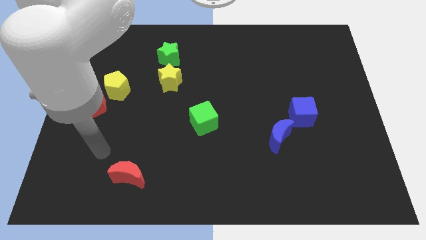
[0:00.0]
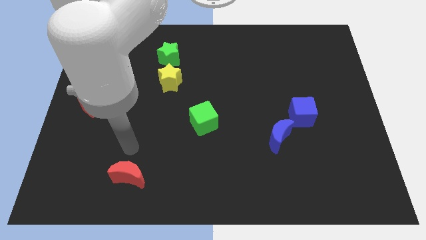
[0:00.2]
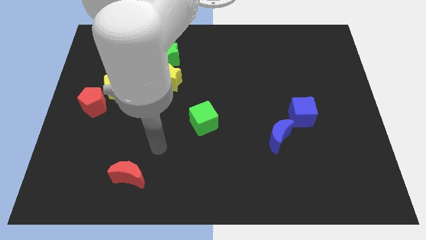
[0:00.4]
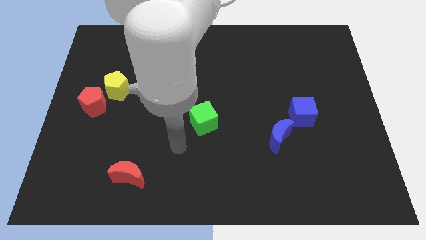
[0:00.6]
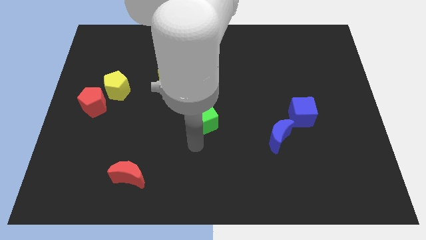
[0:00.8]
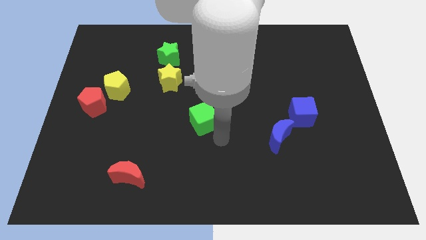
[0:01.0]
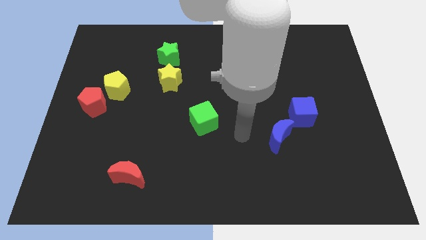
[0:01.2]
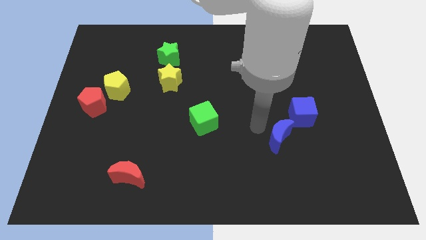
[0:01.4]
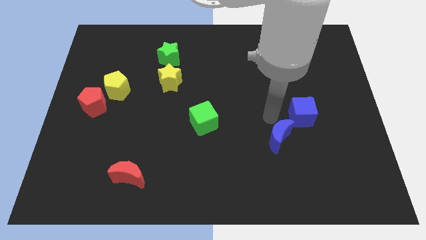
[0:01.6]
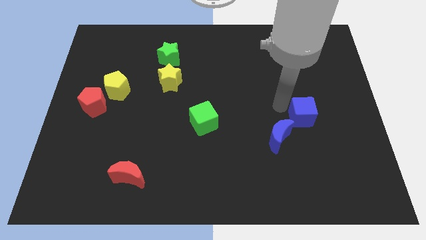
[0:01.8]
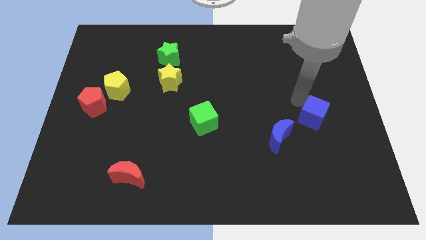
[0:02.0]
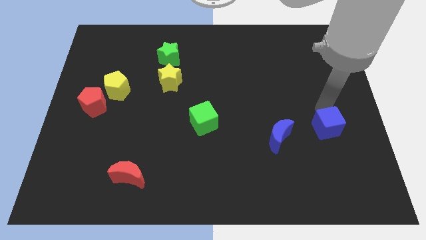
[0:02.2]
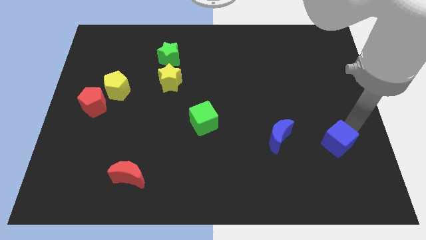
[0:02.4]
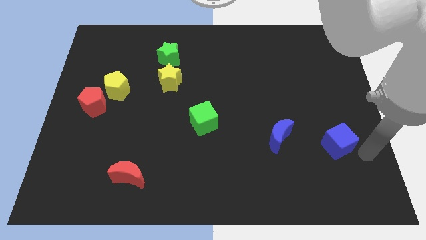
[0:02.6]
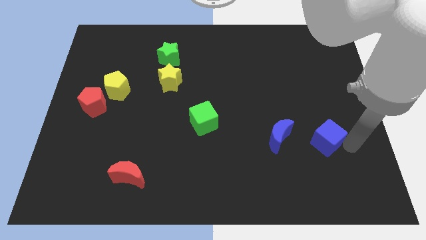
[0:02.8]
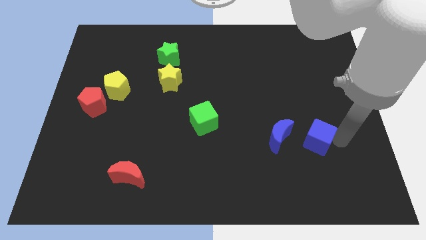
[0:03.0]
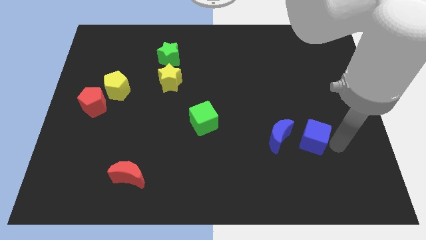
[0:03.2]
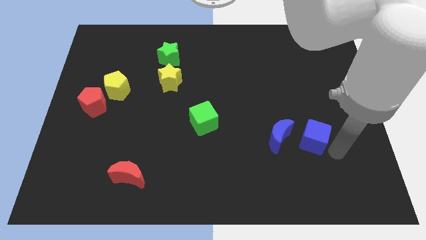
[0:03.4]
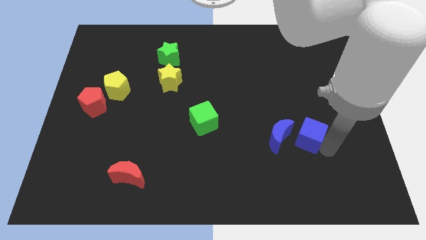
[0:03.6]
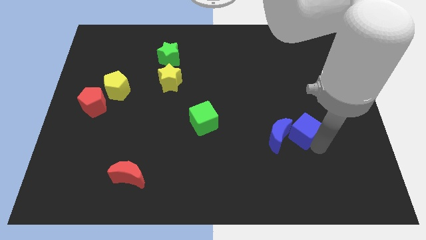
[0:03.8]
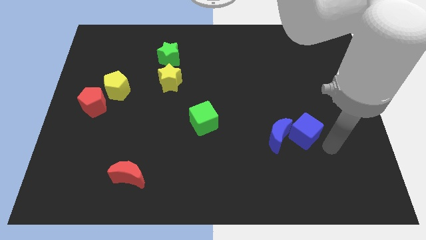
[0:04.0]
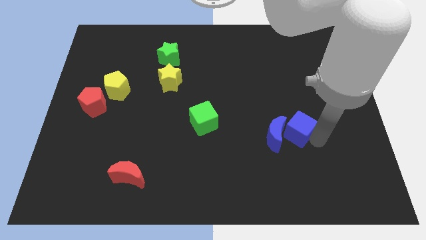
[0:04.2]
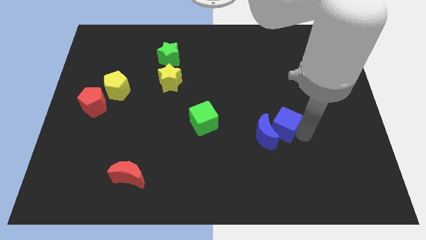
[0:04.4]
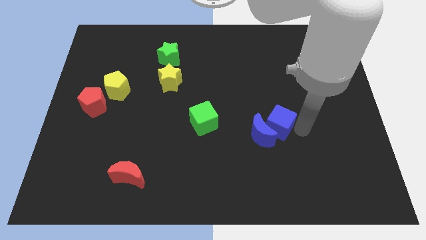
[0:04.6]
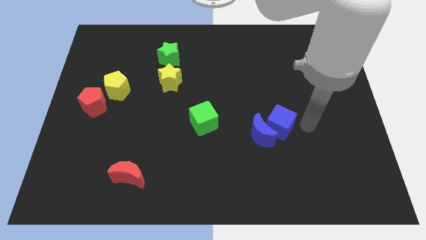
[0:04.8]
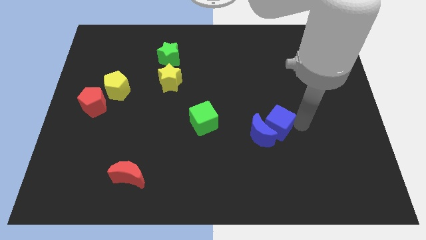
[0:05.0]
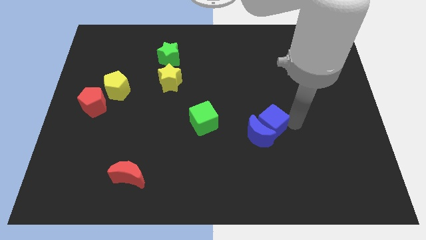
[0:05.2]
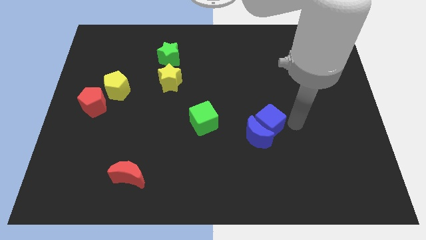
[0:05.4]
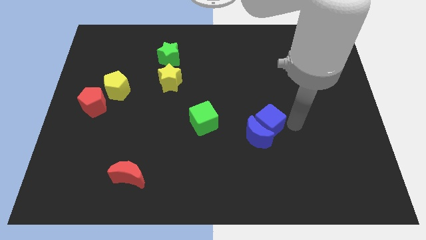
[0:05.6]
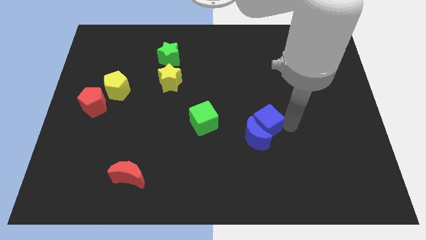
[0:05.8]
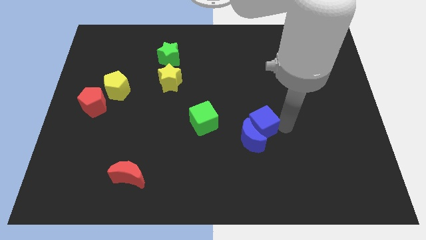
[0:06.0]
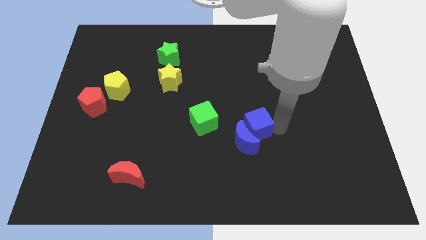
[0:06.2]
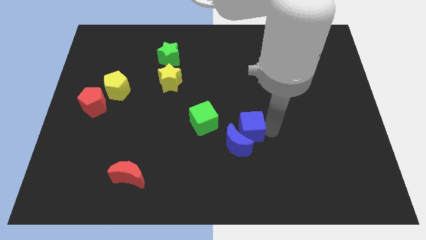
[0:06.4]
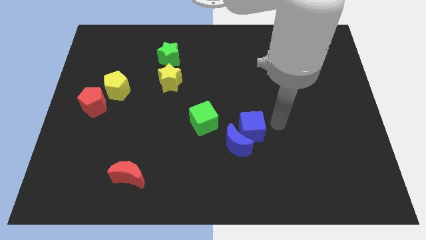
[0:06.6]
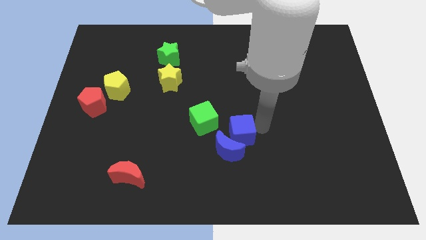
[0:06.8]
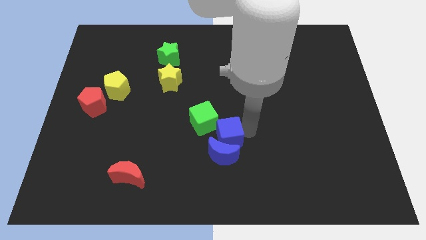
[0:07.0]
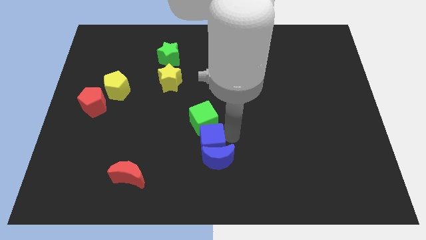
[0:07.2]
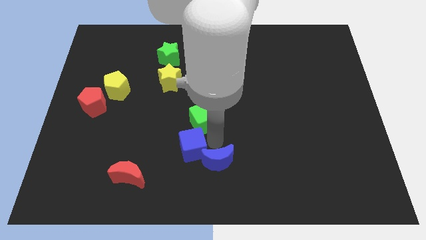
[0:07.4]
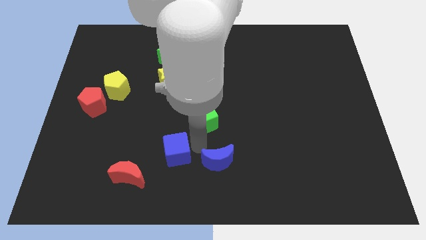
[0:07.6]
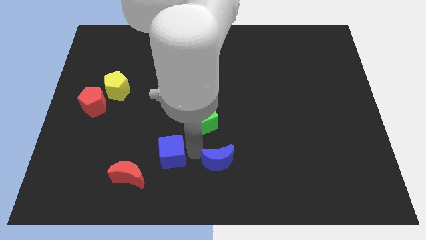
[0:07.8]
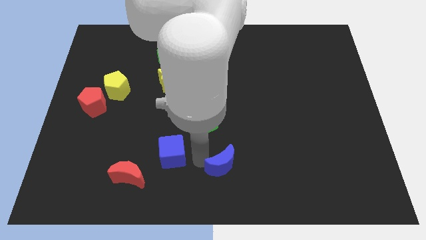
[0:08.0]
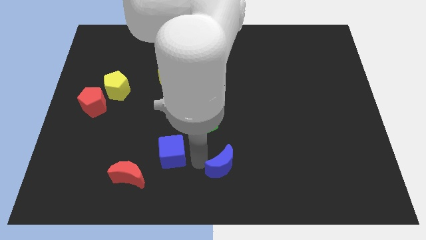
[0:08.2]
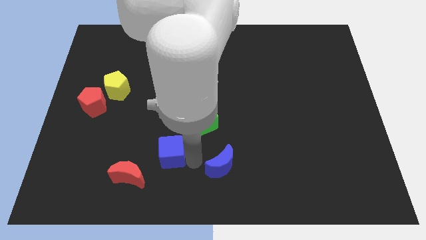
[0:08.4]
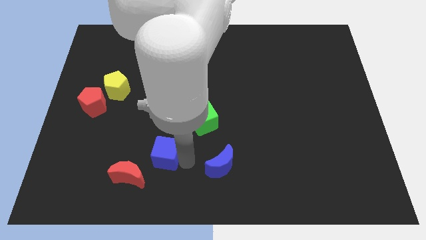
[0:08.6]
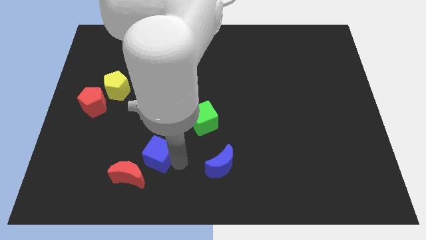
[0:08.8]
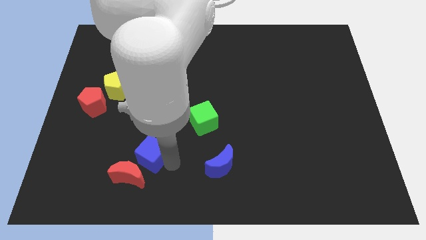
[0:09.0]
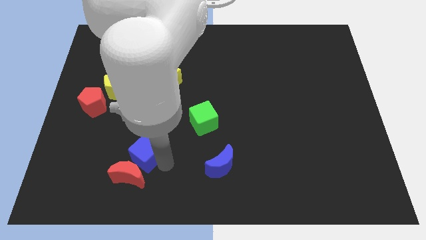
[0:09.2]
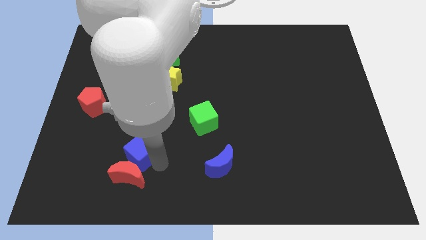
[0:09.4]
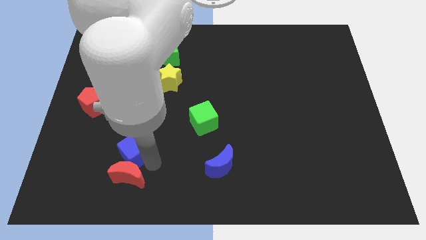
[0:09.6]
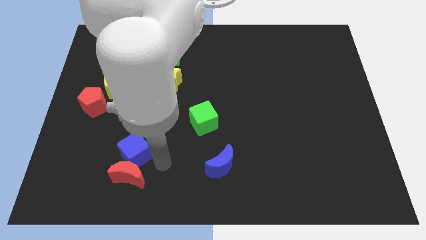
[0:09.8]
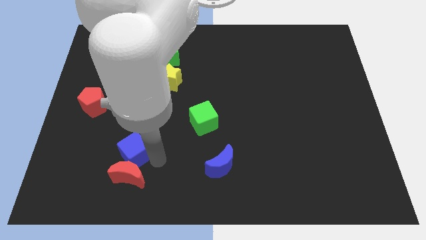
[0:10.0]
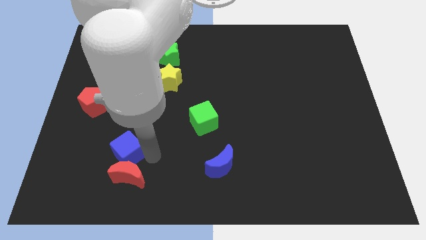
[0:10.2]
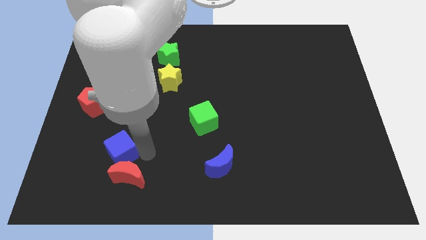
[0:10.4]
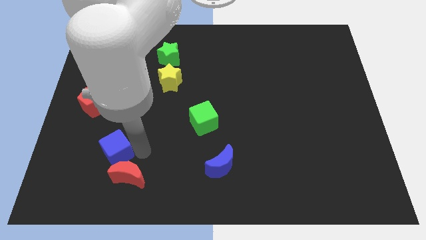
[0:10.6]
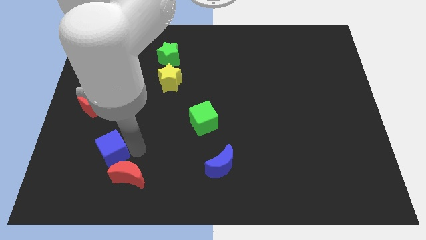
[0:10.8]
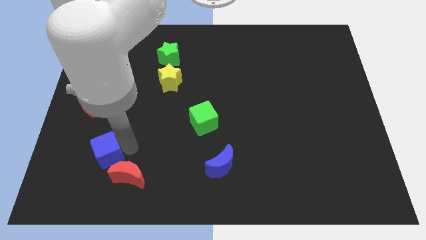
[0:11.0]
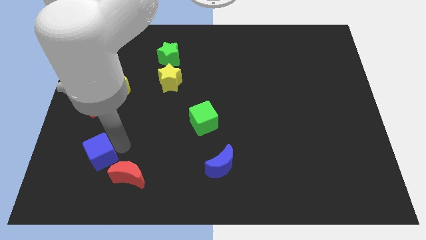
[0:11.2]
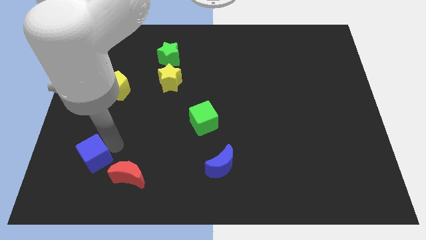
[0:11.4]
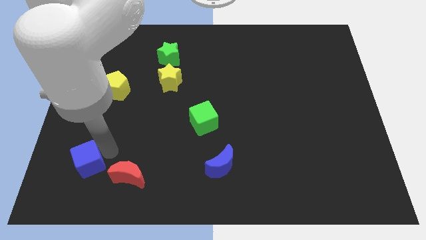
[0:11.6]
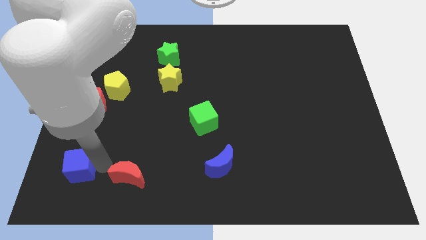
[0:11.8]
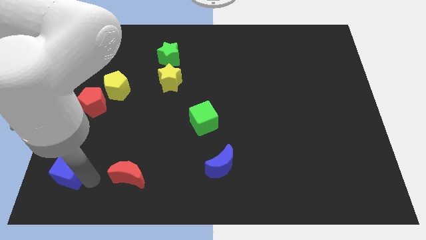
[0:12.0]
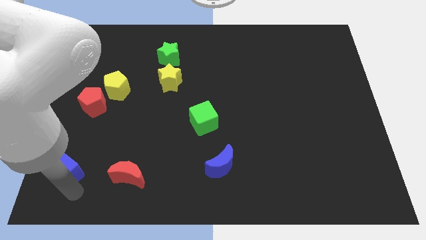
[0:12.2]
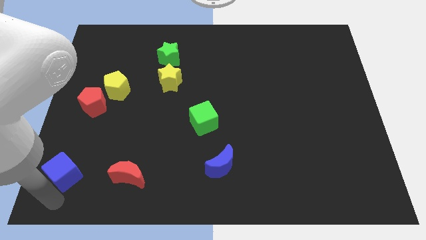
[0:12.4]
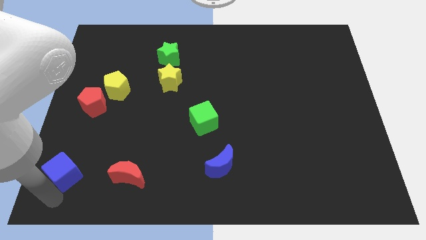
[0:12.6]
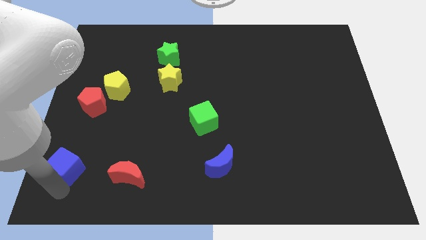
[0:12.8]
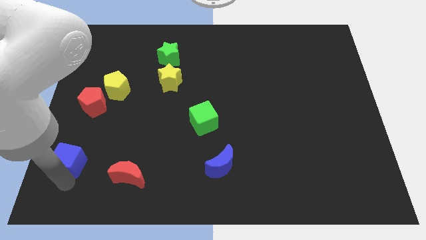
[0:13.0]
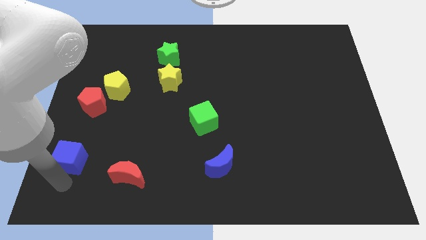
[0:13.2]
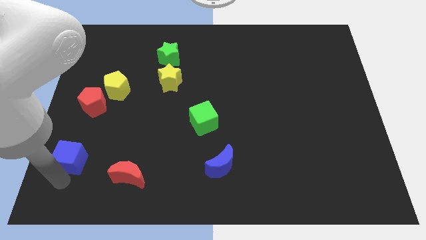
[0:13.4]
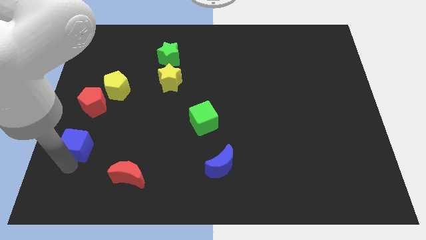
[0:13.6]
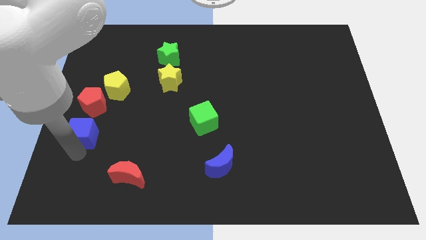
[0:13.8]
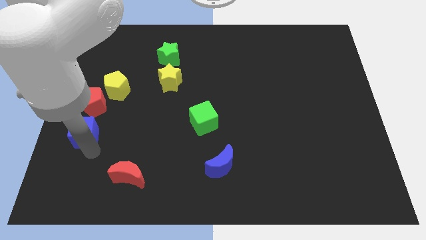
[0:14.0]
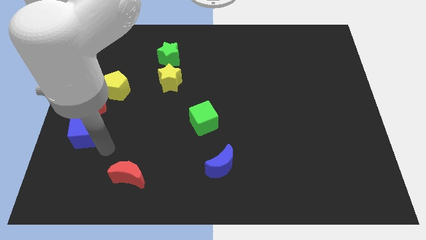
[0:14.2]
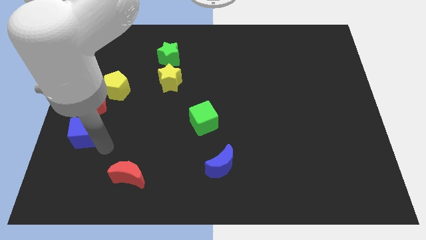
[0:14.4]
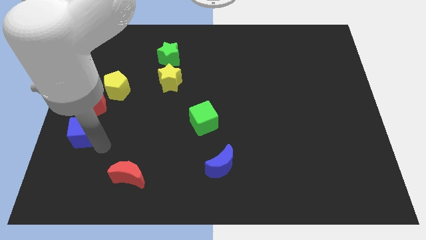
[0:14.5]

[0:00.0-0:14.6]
push the blue cube to the left side
